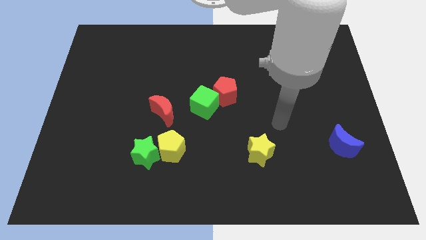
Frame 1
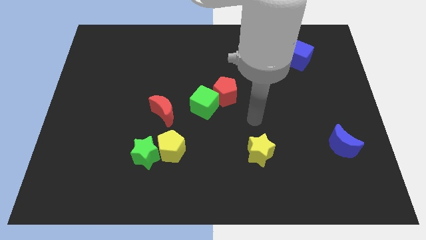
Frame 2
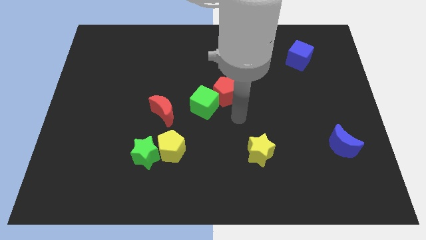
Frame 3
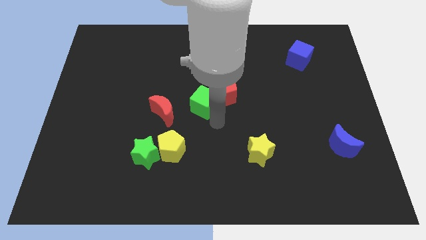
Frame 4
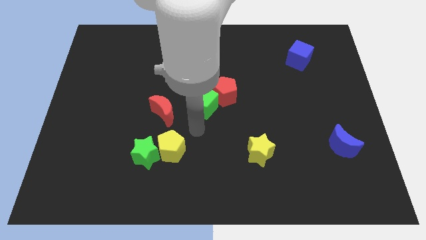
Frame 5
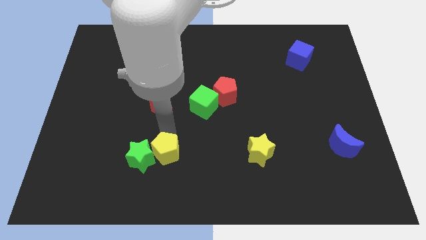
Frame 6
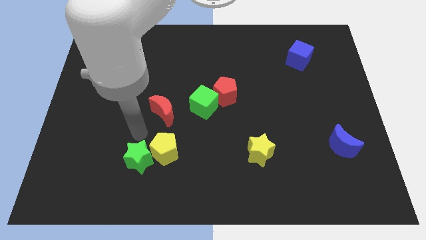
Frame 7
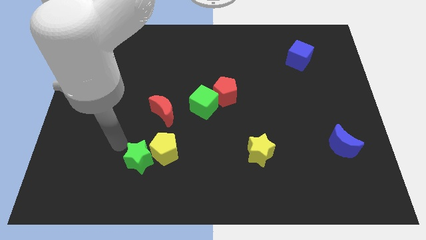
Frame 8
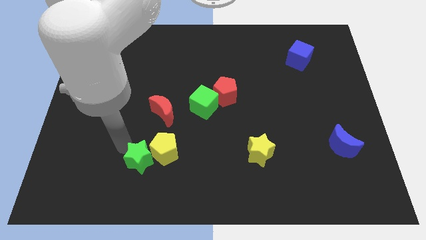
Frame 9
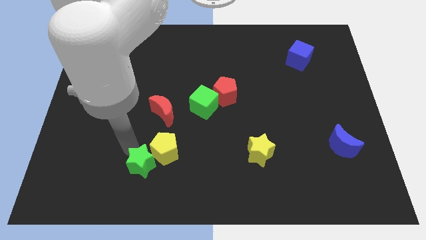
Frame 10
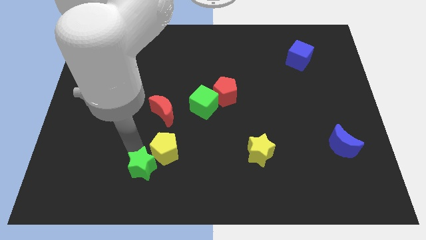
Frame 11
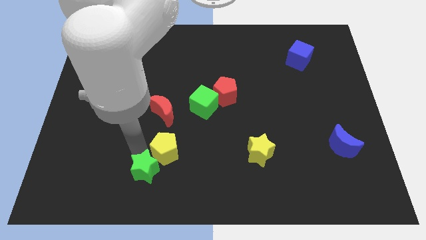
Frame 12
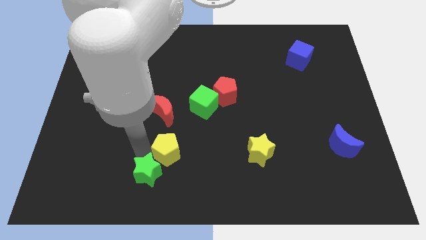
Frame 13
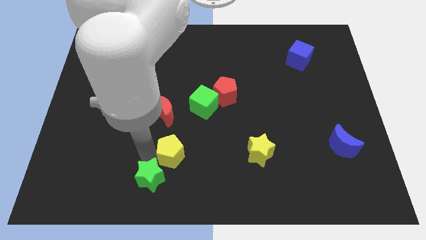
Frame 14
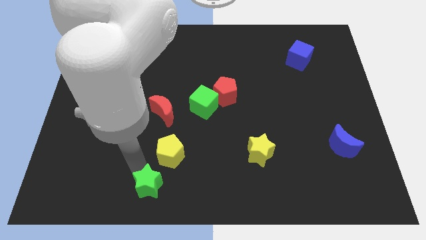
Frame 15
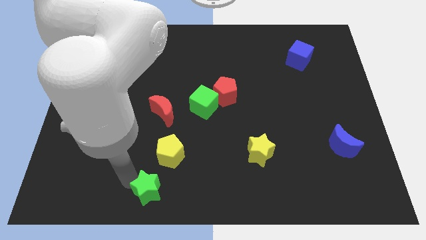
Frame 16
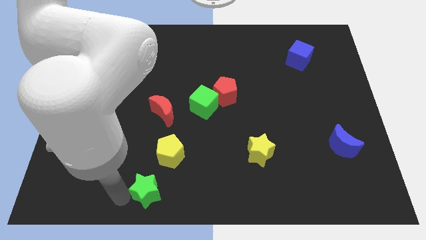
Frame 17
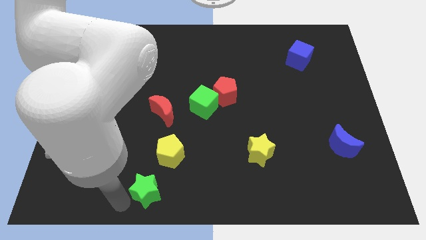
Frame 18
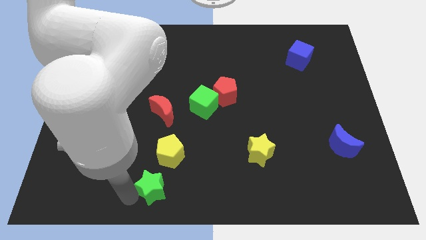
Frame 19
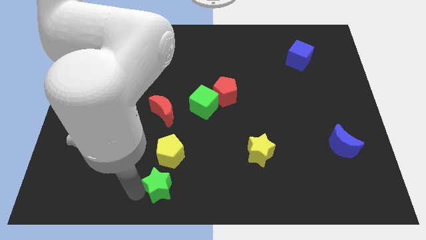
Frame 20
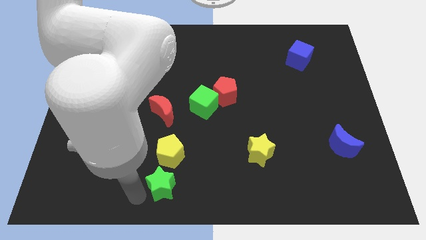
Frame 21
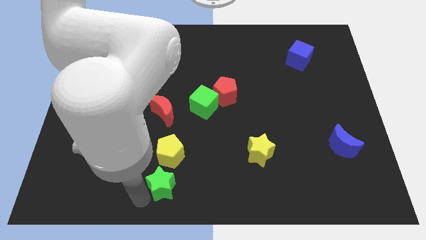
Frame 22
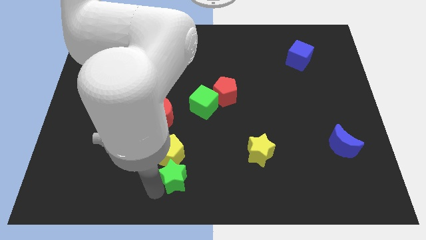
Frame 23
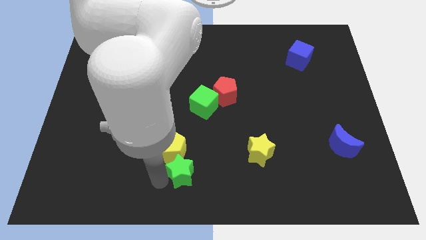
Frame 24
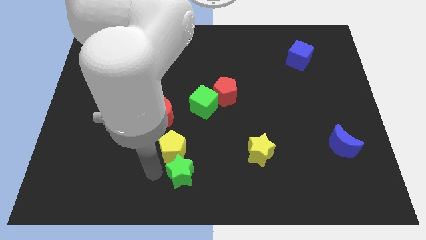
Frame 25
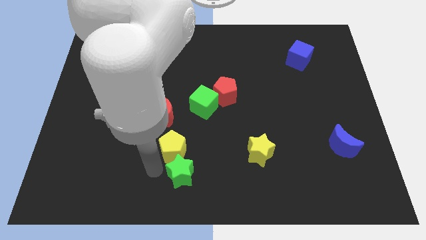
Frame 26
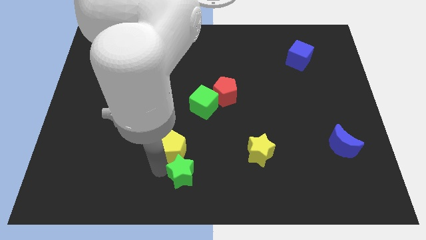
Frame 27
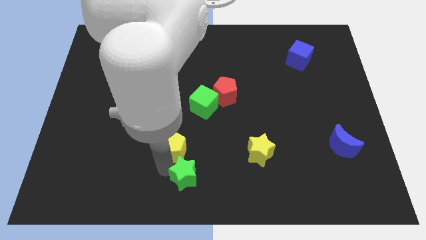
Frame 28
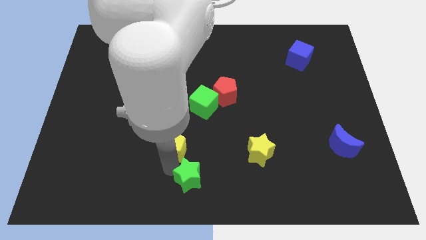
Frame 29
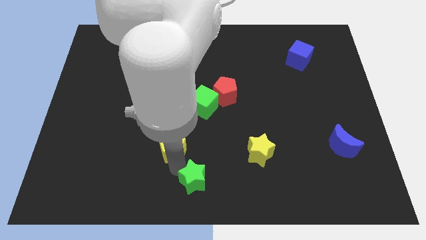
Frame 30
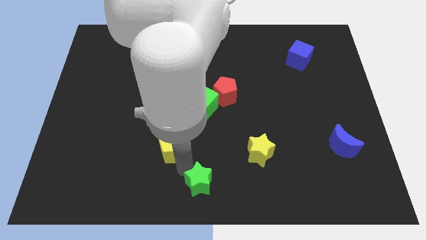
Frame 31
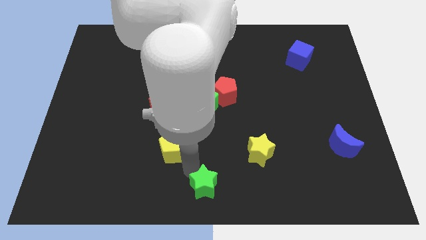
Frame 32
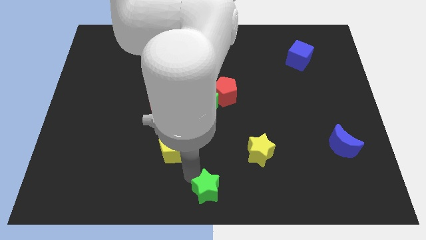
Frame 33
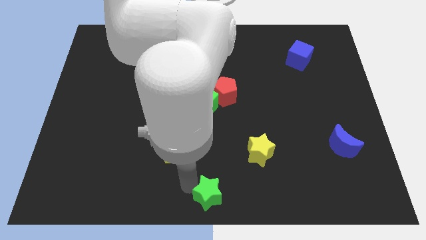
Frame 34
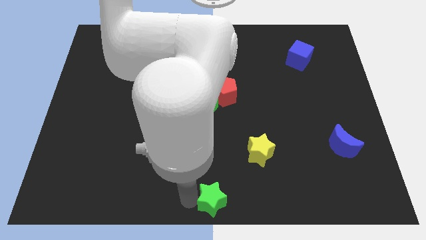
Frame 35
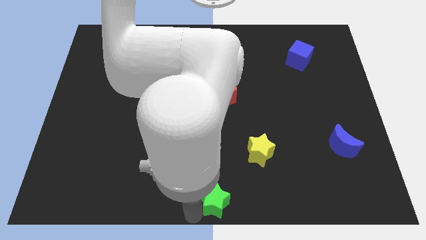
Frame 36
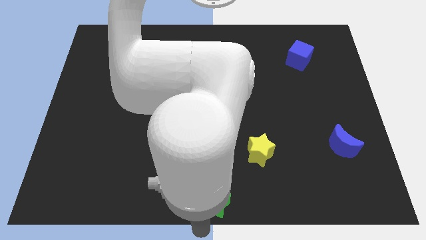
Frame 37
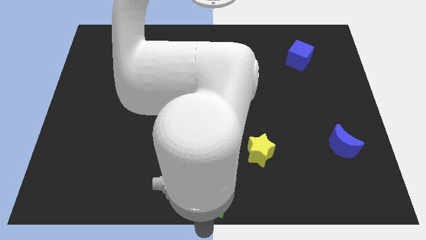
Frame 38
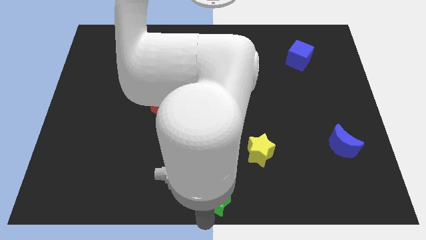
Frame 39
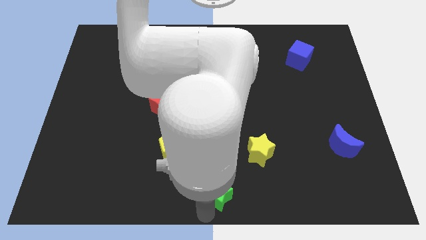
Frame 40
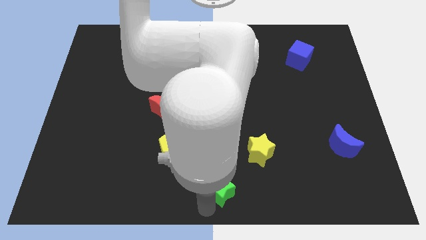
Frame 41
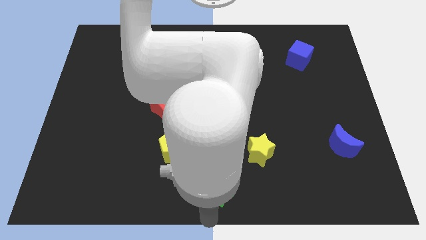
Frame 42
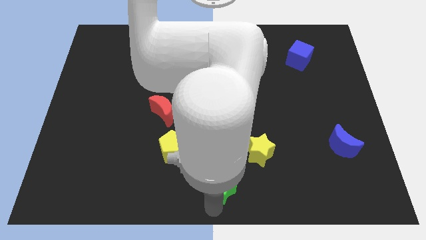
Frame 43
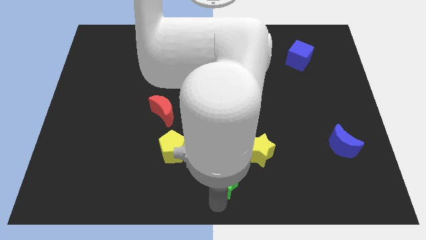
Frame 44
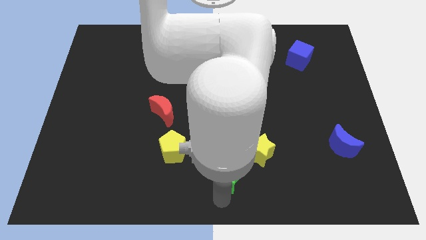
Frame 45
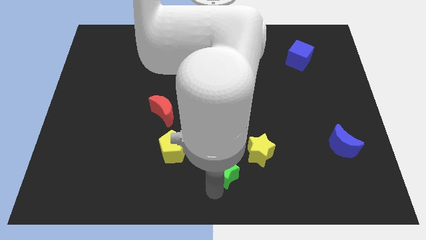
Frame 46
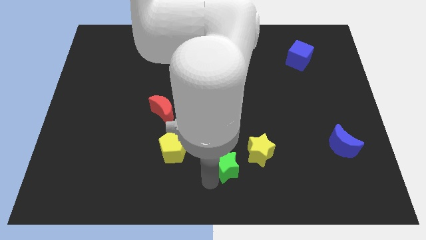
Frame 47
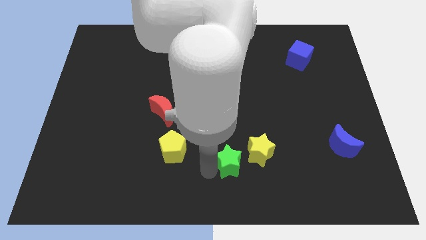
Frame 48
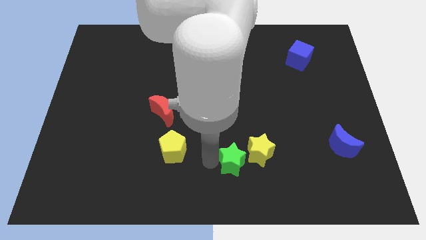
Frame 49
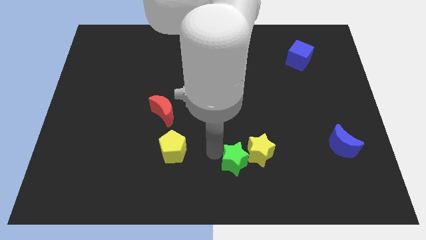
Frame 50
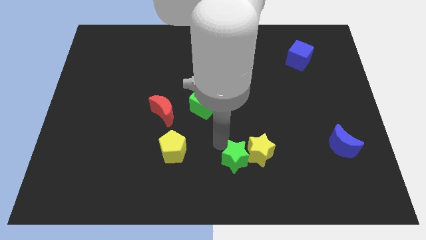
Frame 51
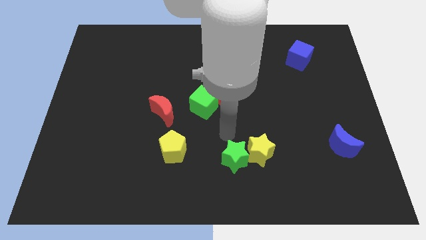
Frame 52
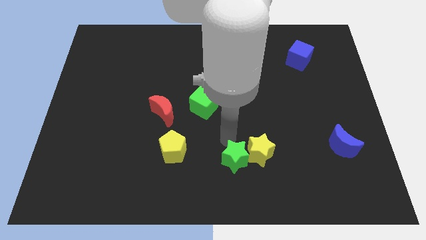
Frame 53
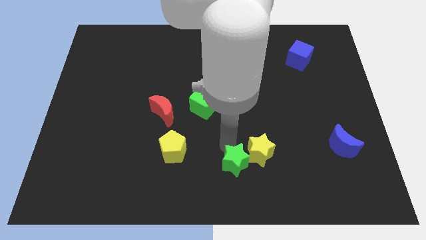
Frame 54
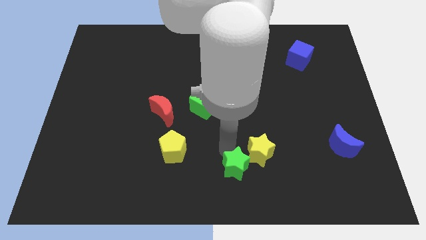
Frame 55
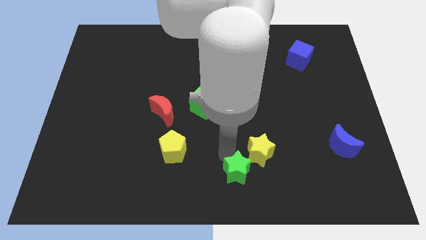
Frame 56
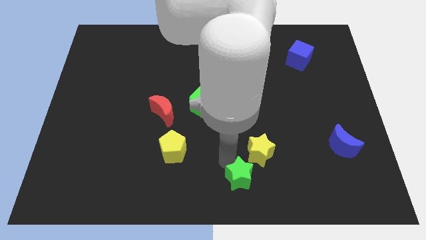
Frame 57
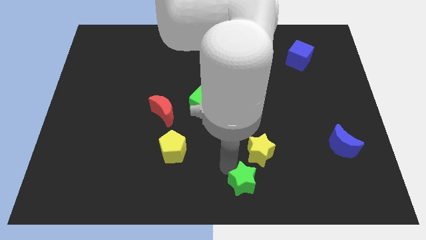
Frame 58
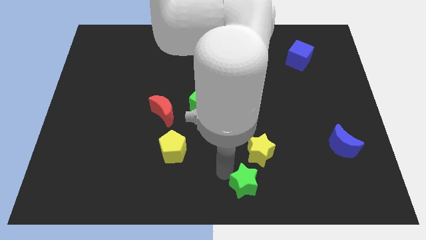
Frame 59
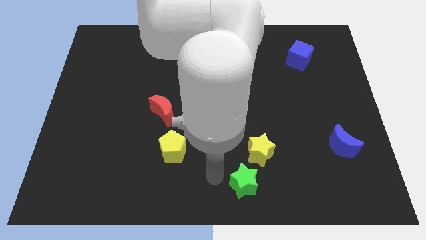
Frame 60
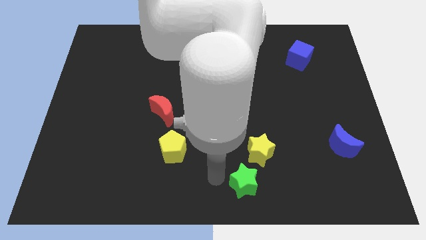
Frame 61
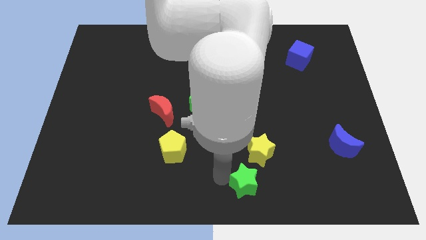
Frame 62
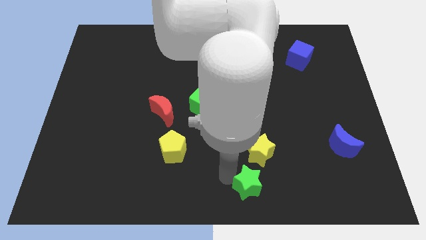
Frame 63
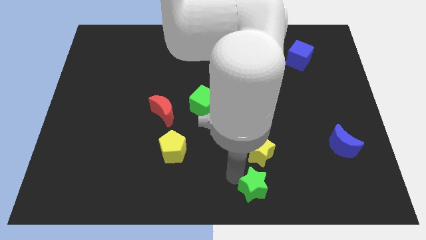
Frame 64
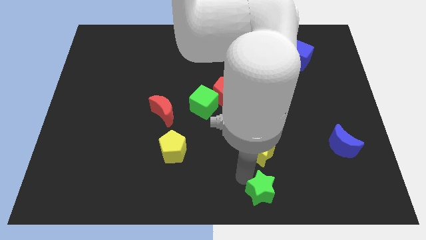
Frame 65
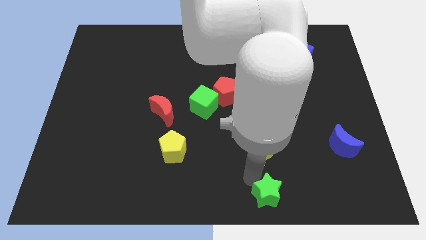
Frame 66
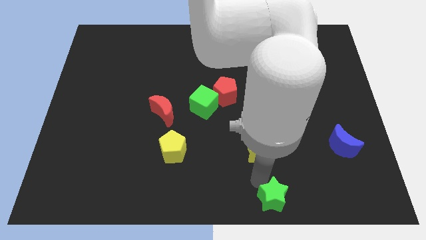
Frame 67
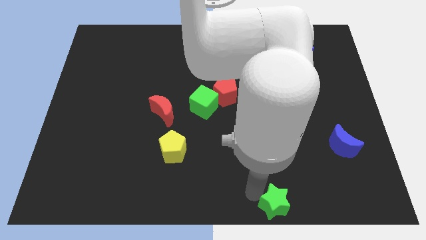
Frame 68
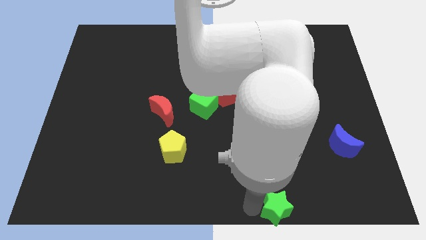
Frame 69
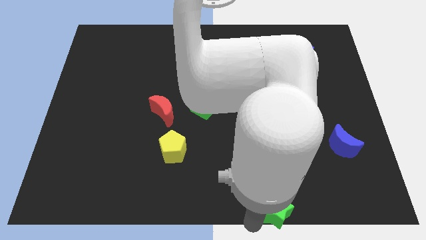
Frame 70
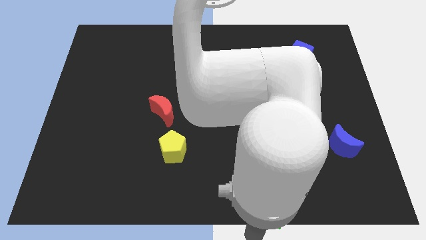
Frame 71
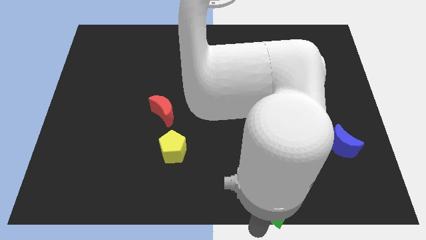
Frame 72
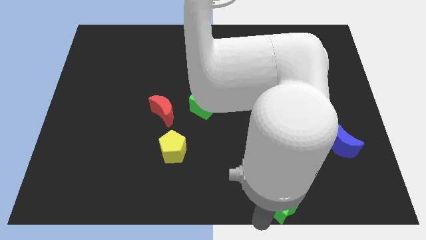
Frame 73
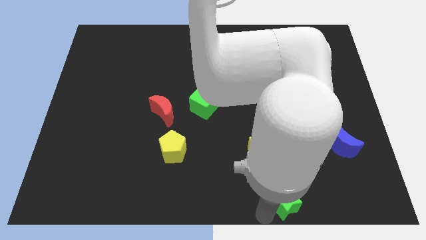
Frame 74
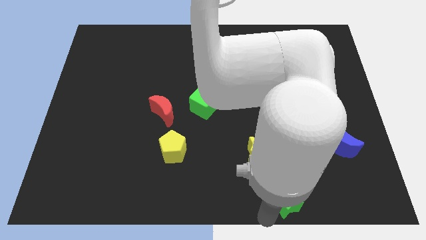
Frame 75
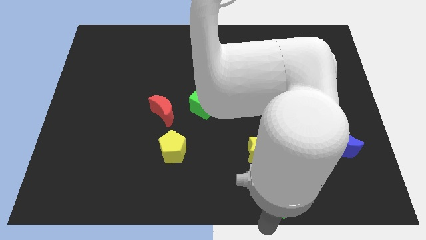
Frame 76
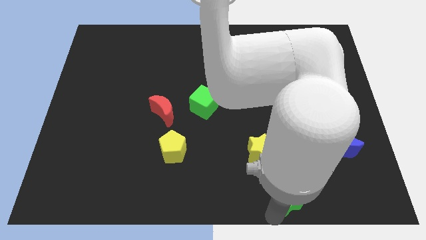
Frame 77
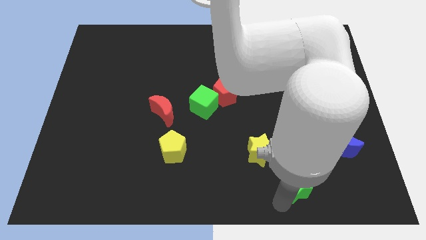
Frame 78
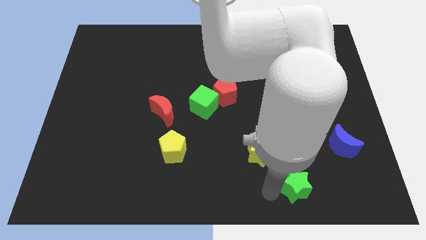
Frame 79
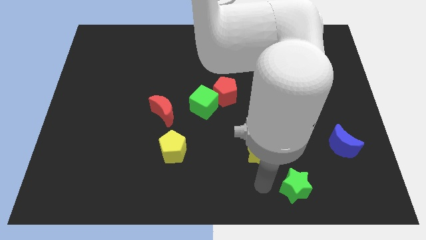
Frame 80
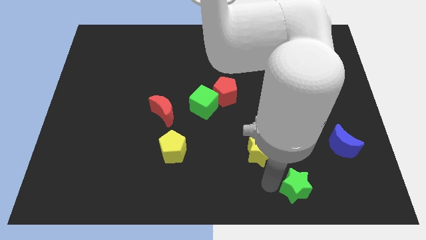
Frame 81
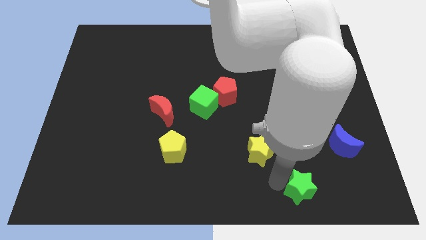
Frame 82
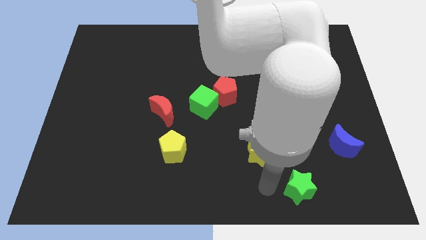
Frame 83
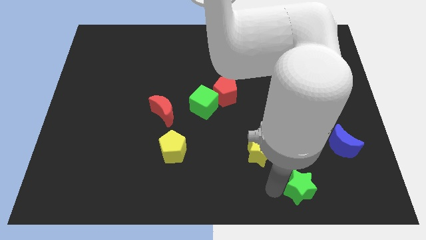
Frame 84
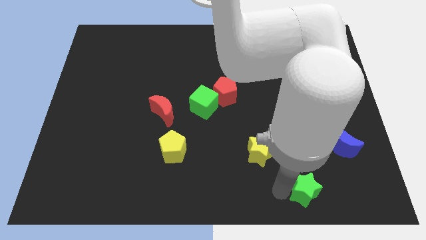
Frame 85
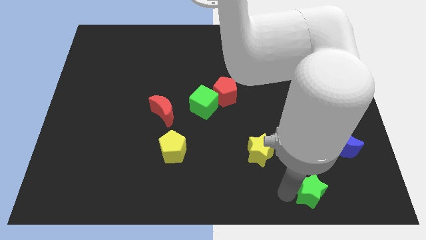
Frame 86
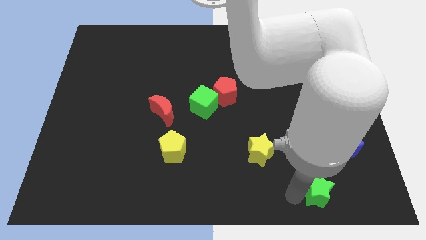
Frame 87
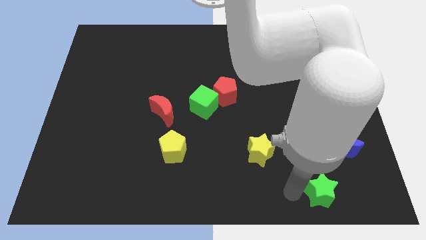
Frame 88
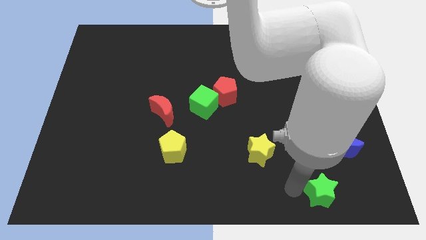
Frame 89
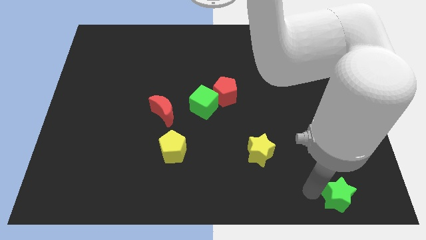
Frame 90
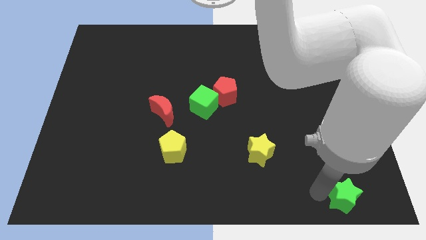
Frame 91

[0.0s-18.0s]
push the green star to the bottom right corner
